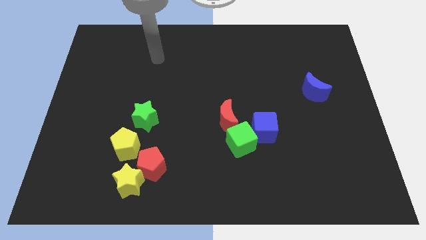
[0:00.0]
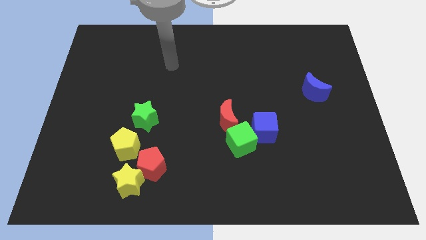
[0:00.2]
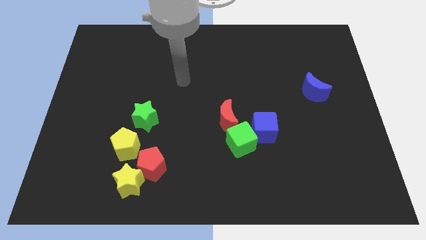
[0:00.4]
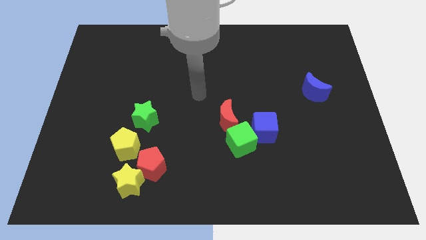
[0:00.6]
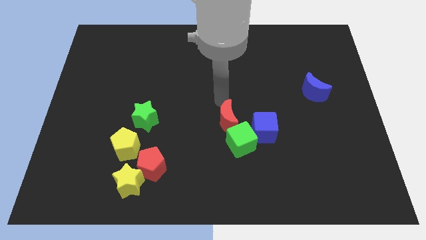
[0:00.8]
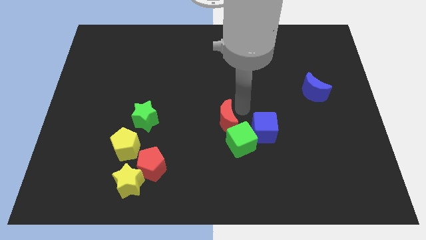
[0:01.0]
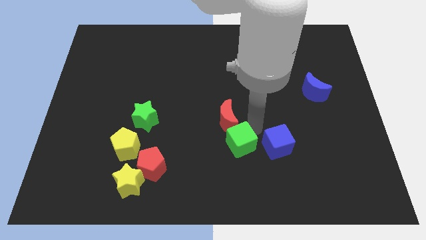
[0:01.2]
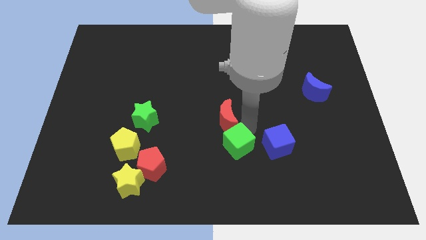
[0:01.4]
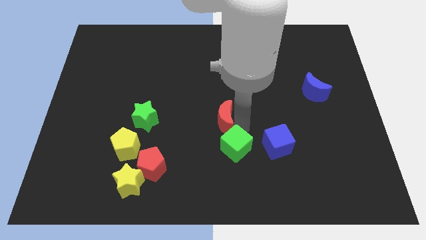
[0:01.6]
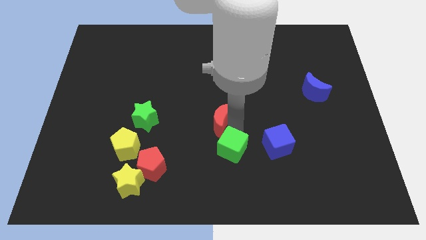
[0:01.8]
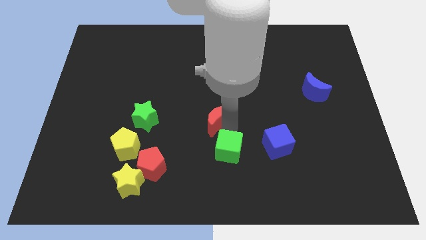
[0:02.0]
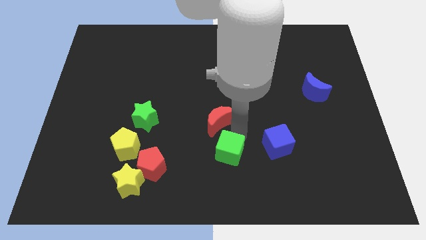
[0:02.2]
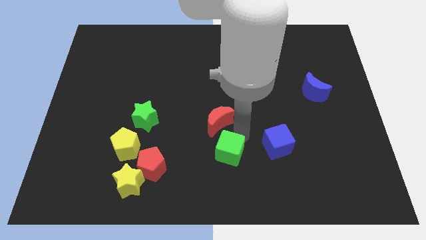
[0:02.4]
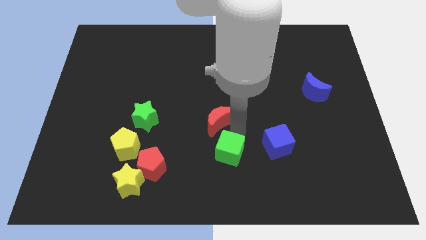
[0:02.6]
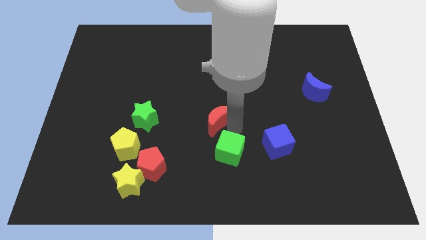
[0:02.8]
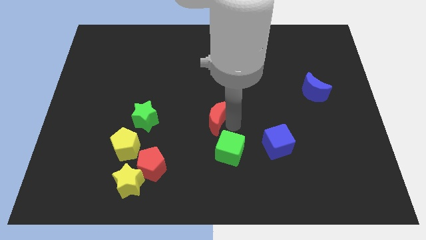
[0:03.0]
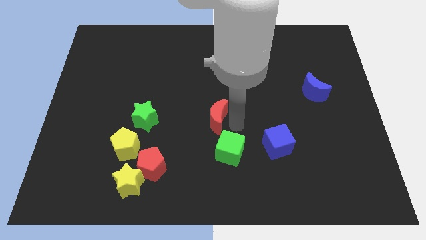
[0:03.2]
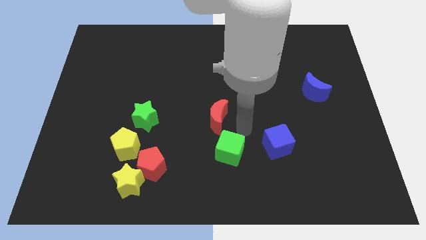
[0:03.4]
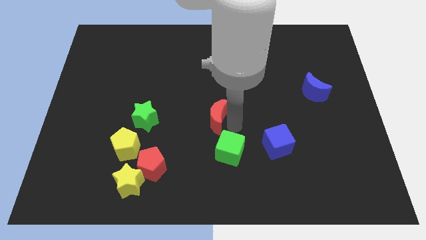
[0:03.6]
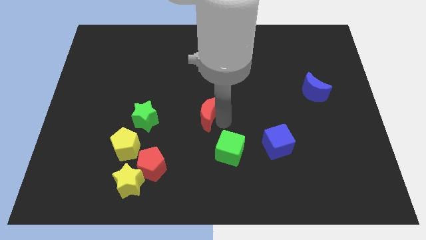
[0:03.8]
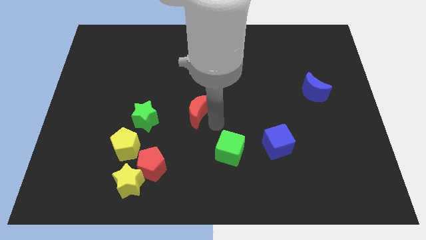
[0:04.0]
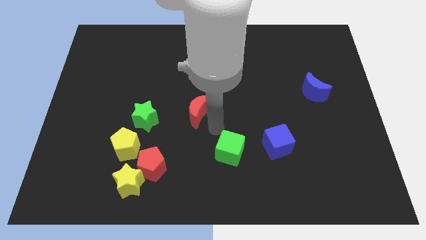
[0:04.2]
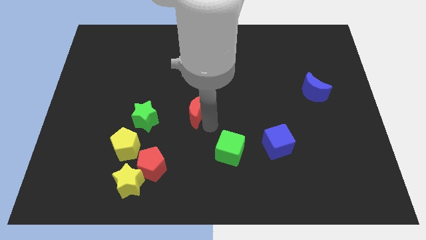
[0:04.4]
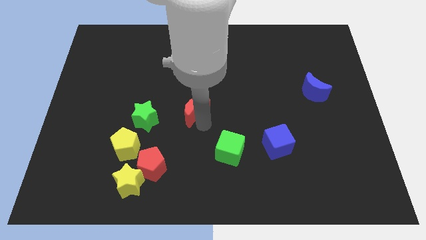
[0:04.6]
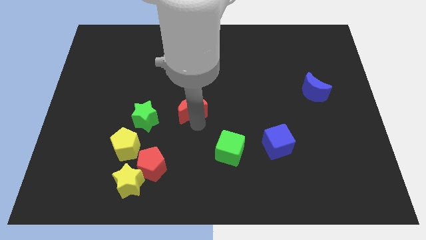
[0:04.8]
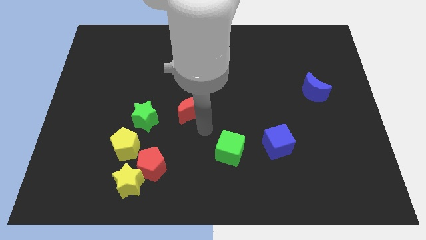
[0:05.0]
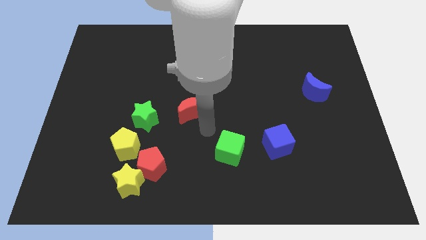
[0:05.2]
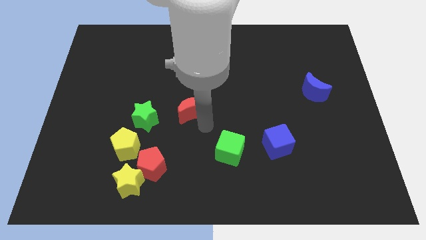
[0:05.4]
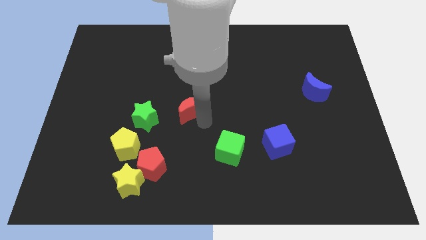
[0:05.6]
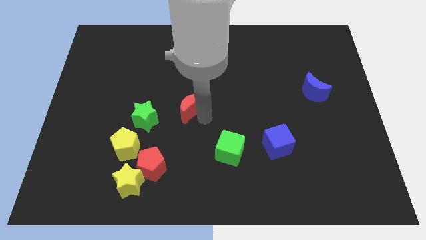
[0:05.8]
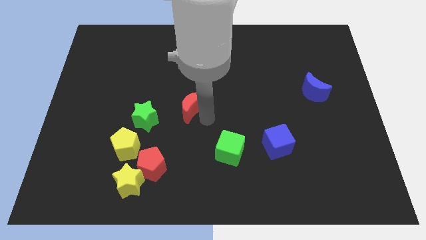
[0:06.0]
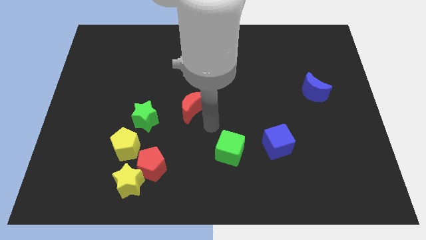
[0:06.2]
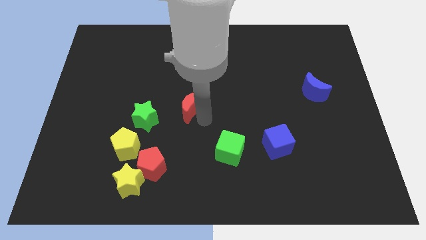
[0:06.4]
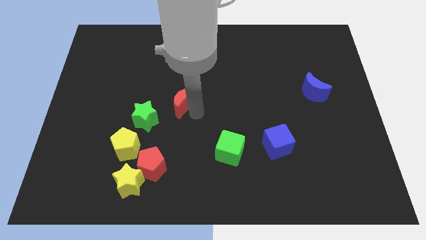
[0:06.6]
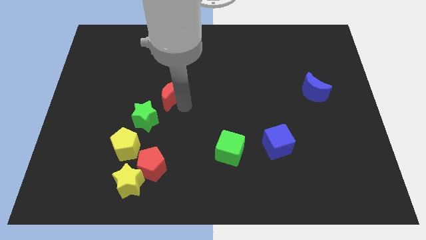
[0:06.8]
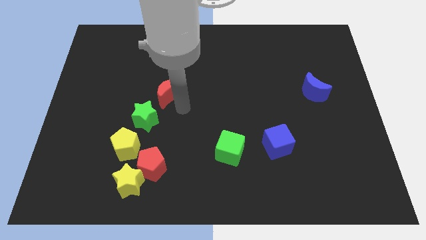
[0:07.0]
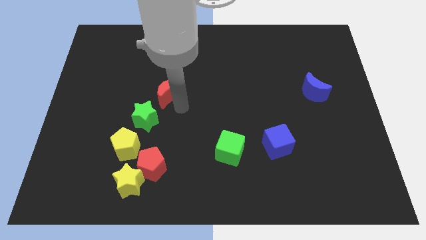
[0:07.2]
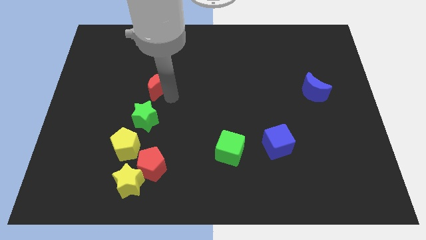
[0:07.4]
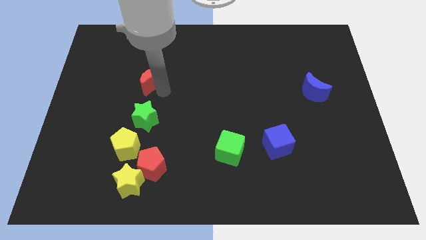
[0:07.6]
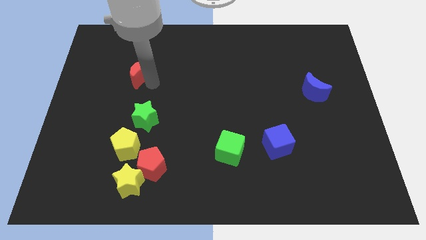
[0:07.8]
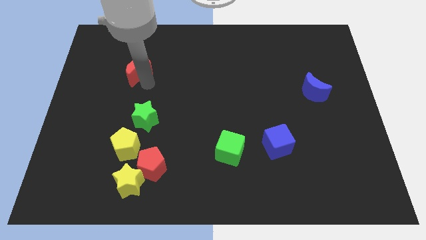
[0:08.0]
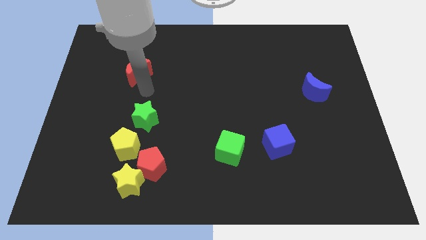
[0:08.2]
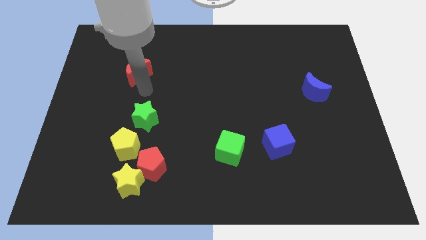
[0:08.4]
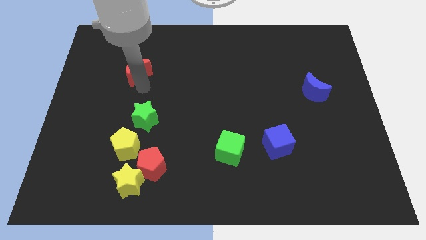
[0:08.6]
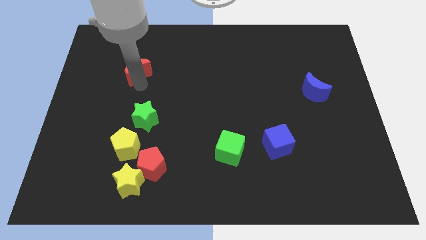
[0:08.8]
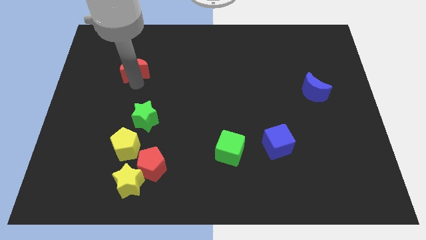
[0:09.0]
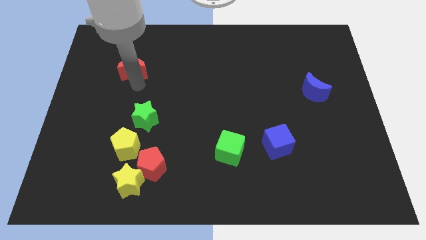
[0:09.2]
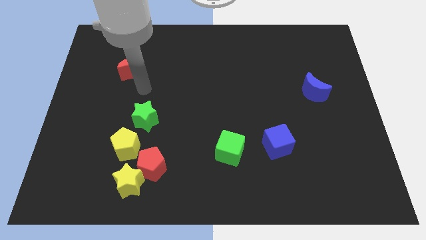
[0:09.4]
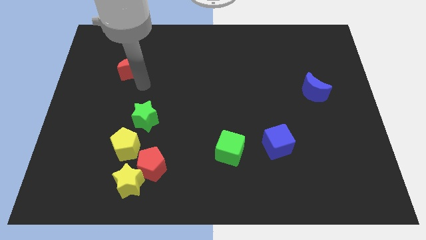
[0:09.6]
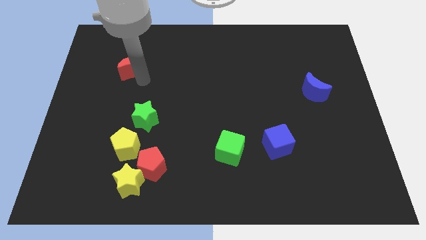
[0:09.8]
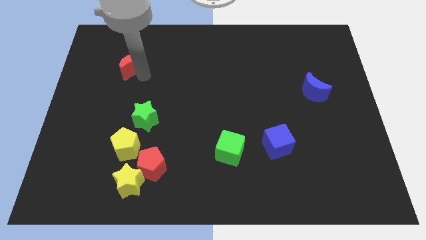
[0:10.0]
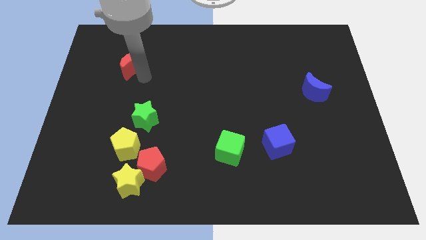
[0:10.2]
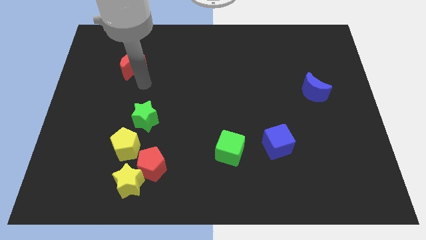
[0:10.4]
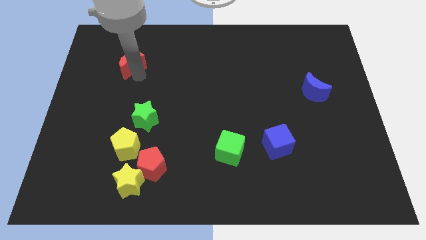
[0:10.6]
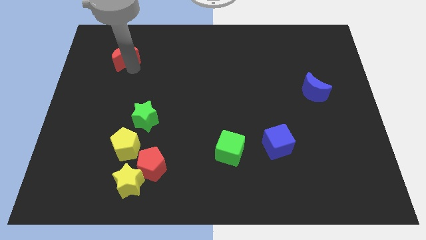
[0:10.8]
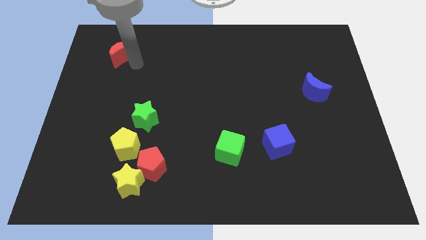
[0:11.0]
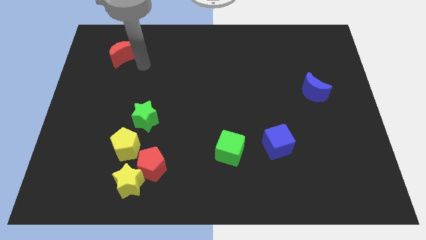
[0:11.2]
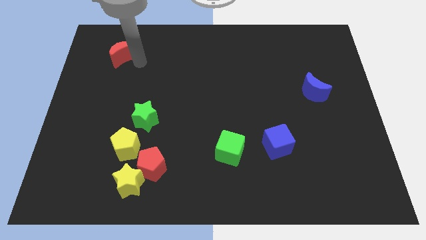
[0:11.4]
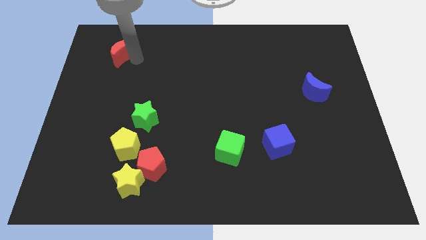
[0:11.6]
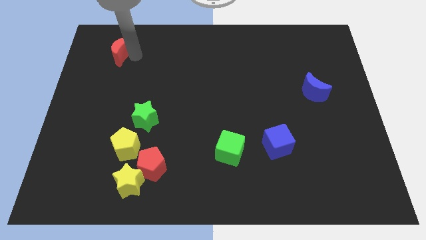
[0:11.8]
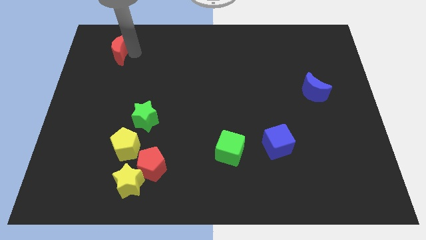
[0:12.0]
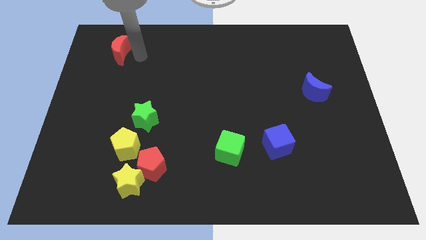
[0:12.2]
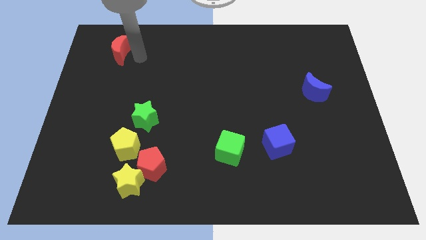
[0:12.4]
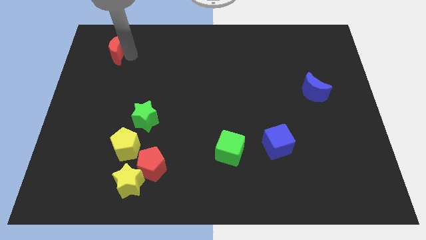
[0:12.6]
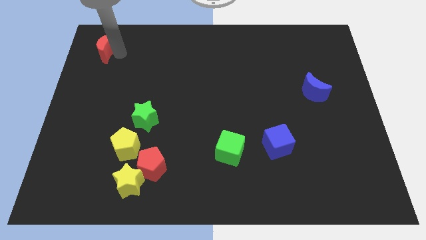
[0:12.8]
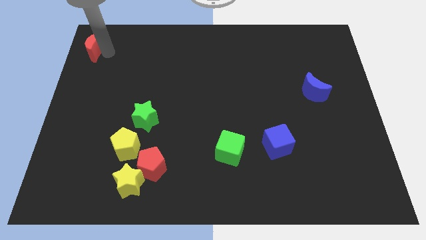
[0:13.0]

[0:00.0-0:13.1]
move the red moon to the top left

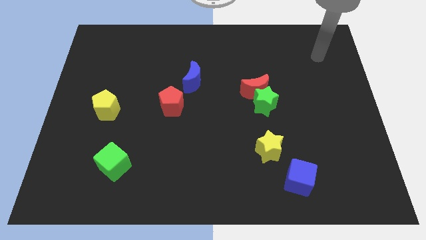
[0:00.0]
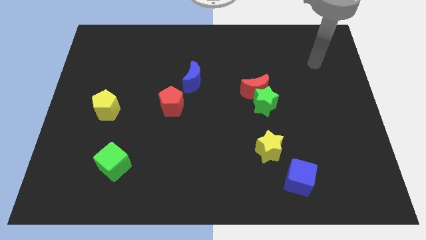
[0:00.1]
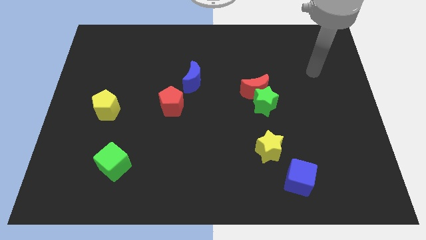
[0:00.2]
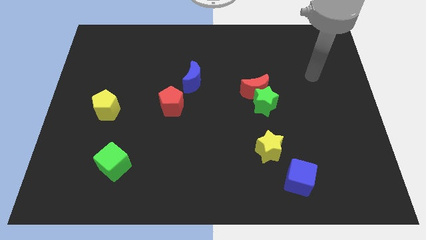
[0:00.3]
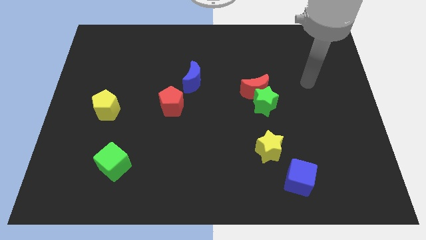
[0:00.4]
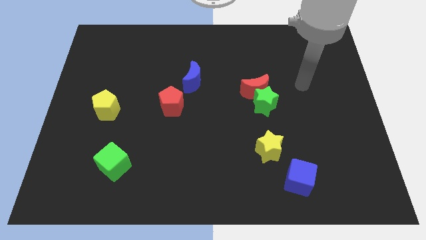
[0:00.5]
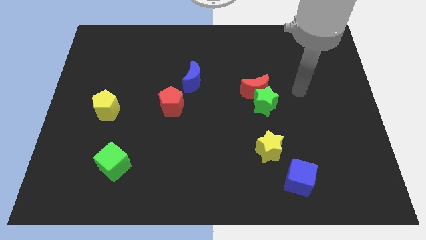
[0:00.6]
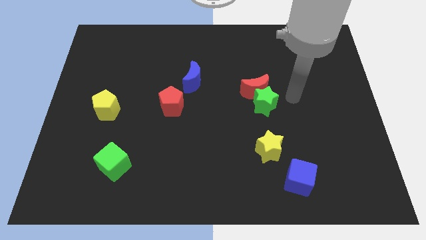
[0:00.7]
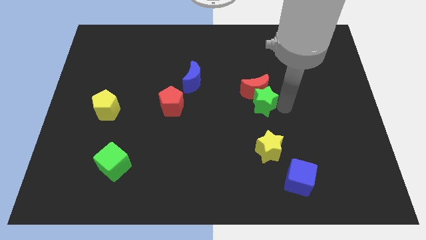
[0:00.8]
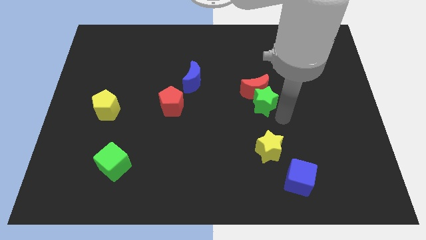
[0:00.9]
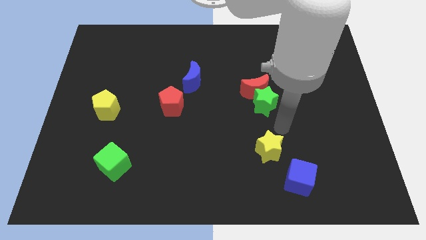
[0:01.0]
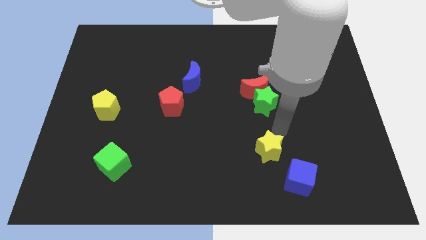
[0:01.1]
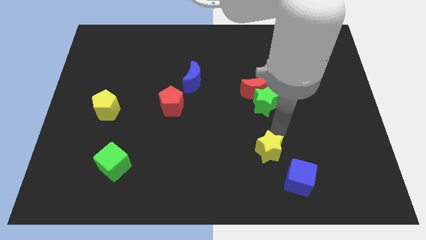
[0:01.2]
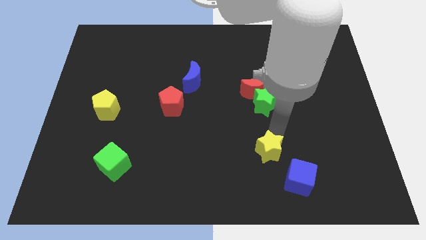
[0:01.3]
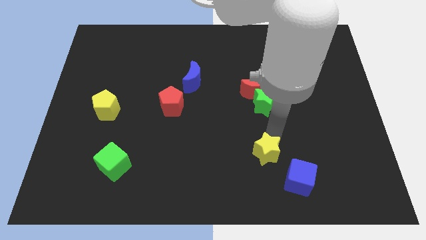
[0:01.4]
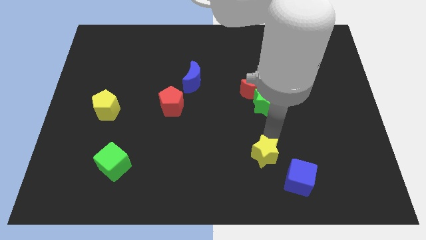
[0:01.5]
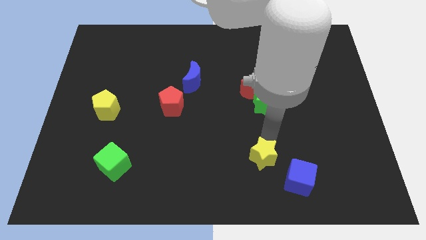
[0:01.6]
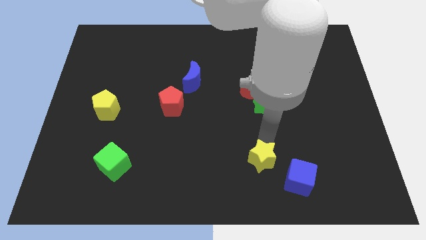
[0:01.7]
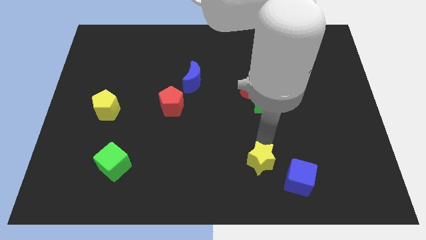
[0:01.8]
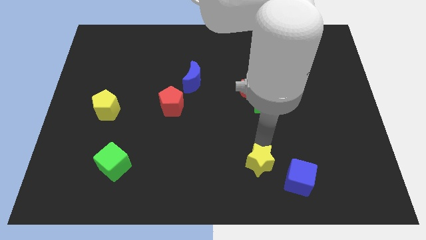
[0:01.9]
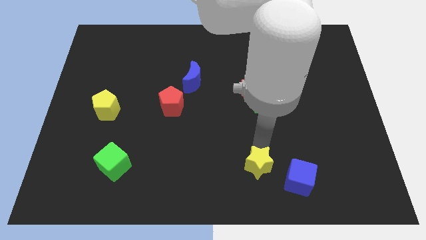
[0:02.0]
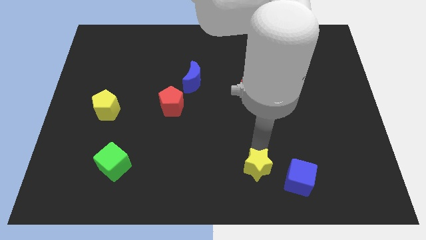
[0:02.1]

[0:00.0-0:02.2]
slide the yellow star to the bottom side
